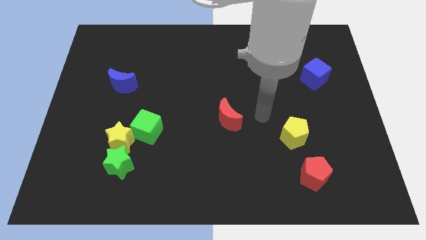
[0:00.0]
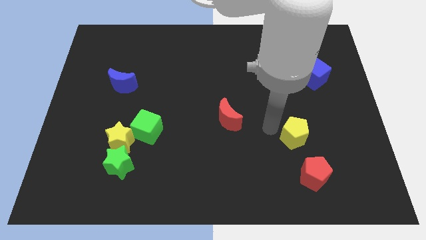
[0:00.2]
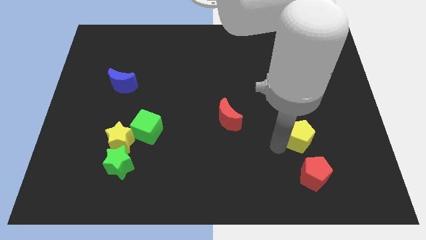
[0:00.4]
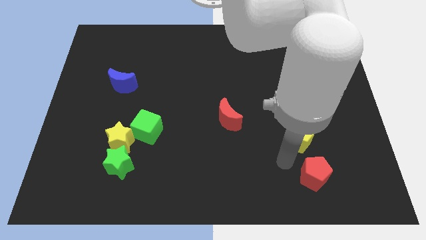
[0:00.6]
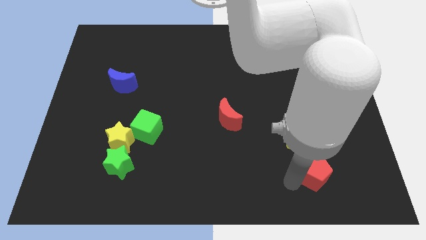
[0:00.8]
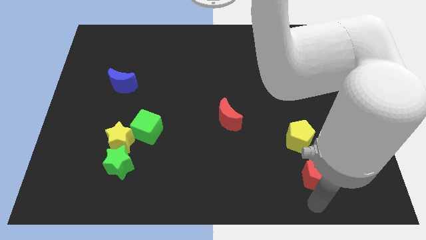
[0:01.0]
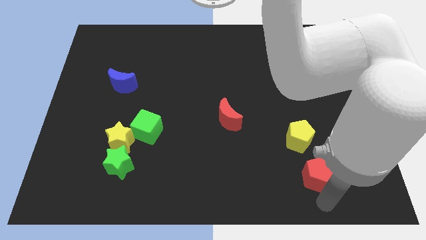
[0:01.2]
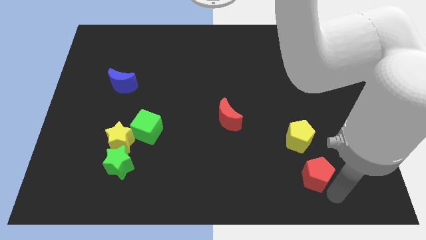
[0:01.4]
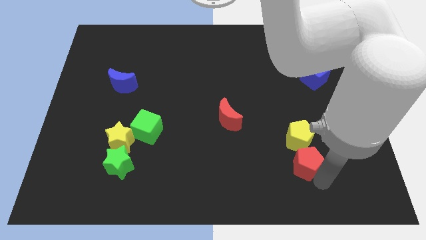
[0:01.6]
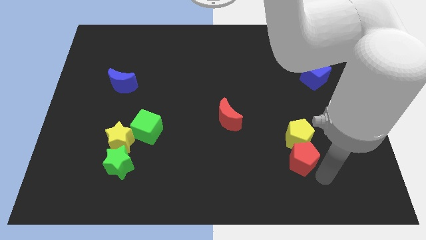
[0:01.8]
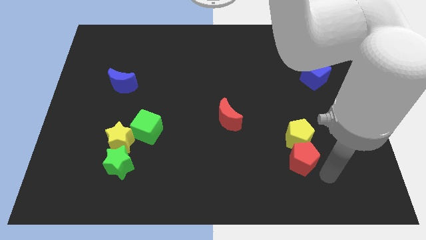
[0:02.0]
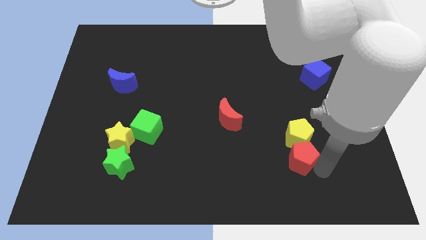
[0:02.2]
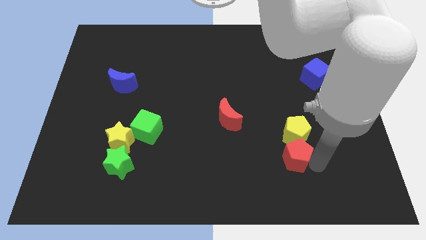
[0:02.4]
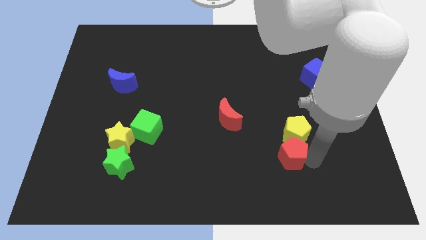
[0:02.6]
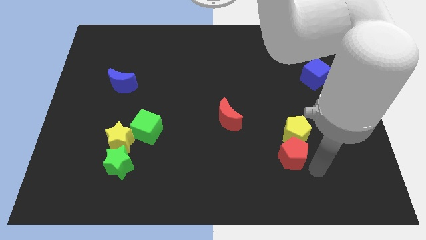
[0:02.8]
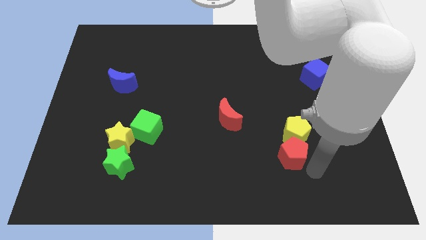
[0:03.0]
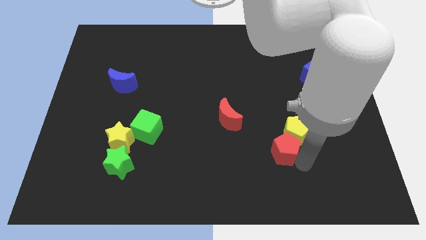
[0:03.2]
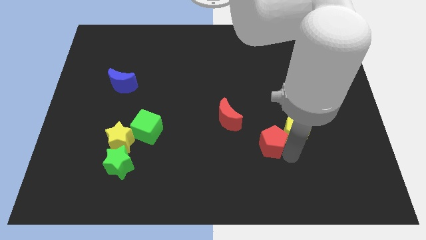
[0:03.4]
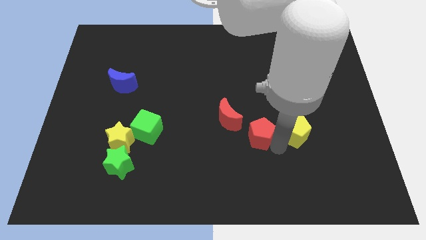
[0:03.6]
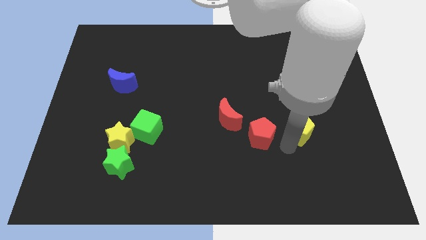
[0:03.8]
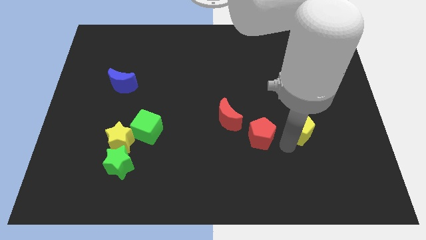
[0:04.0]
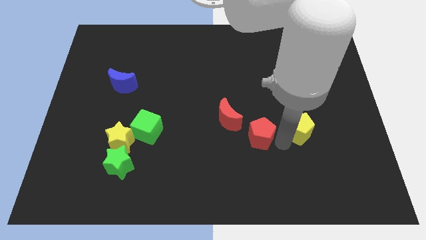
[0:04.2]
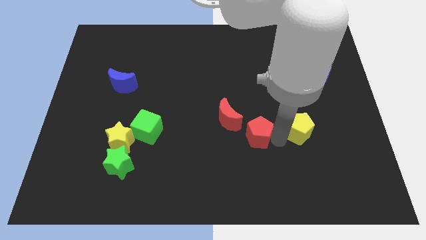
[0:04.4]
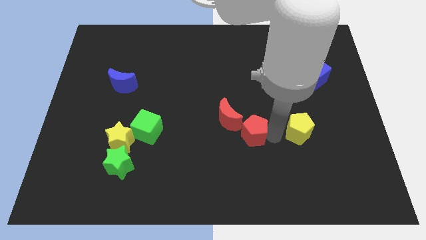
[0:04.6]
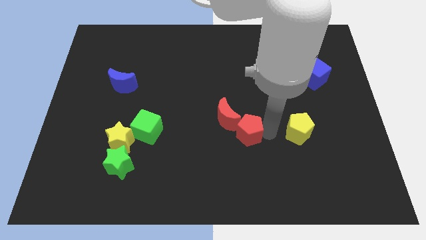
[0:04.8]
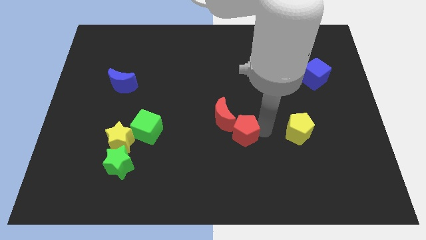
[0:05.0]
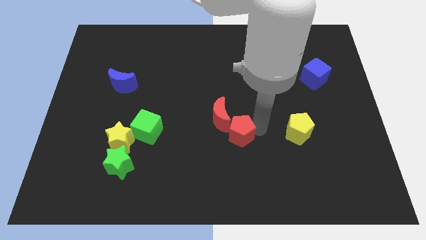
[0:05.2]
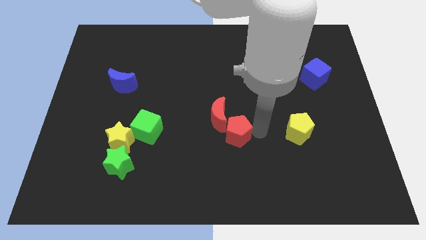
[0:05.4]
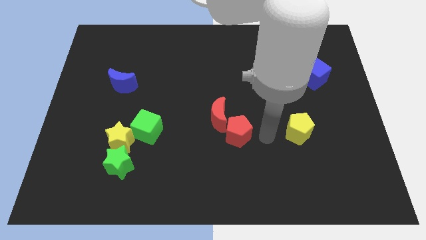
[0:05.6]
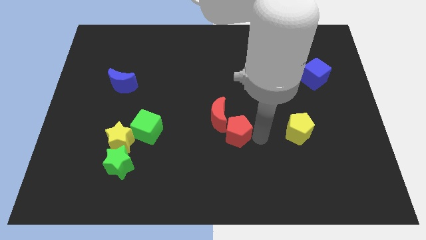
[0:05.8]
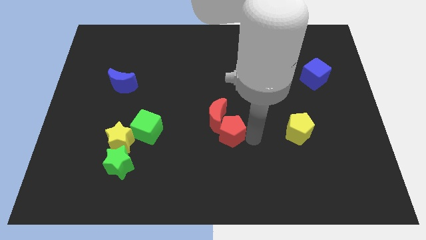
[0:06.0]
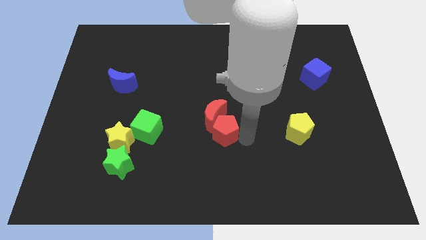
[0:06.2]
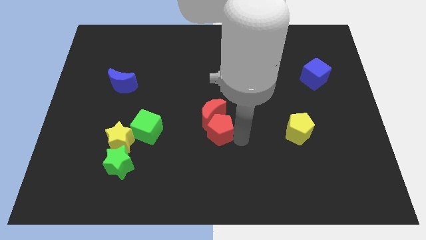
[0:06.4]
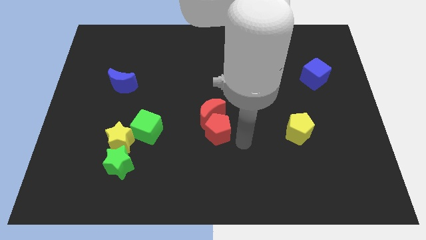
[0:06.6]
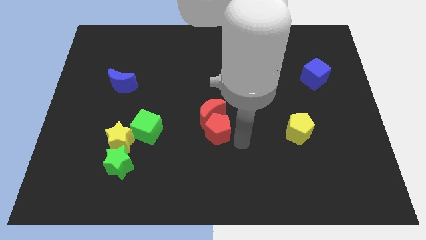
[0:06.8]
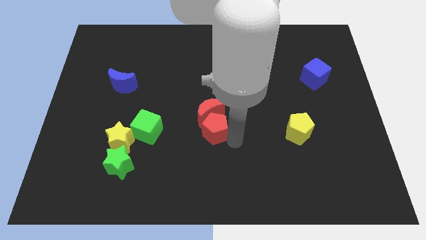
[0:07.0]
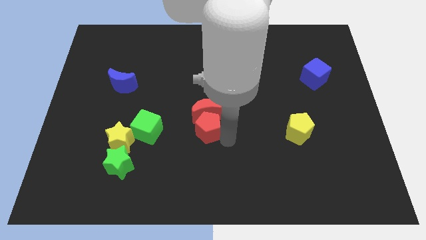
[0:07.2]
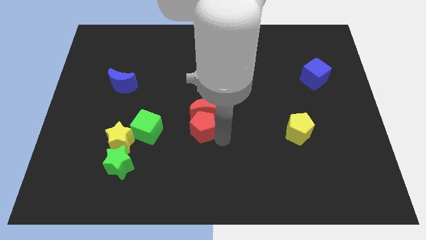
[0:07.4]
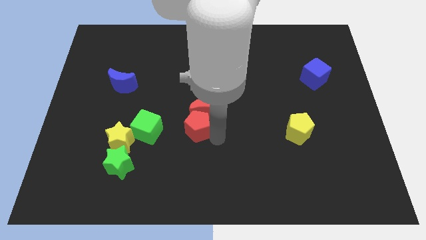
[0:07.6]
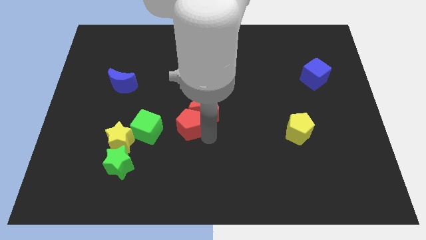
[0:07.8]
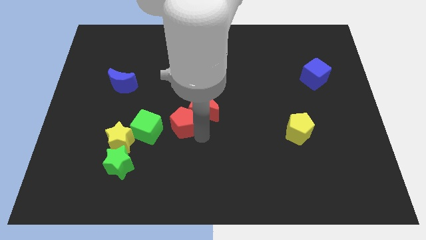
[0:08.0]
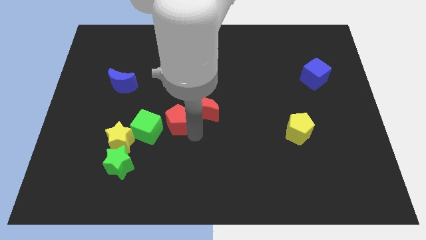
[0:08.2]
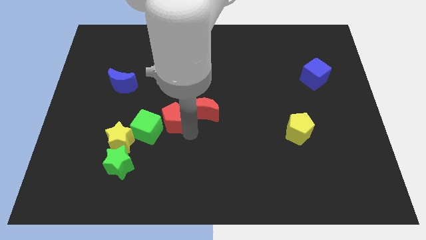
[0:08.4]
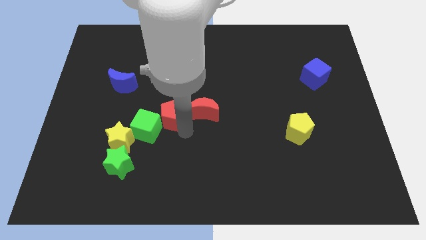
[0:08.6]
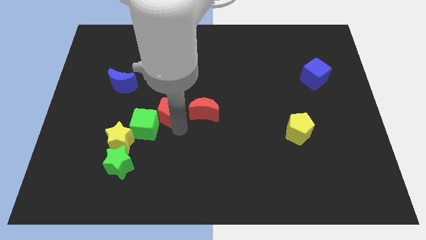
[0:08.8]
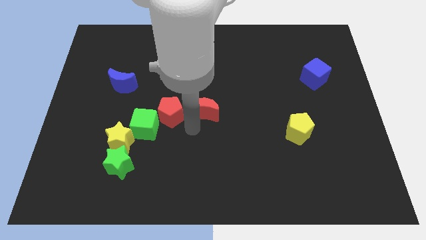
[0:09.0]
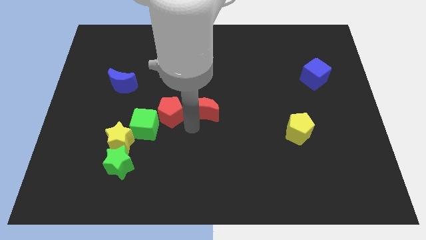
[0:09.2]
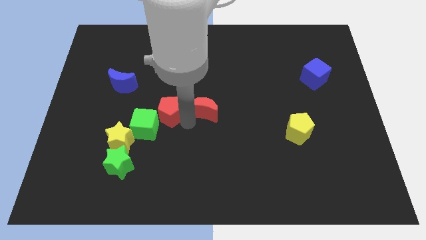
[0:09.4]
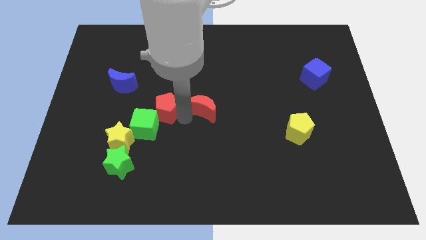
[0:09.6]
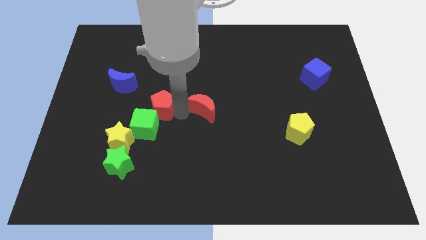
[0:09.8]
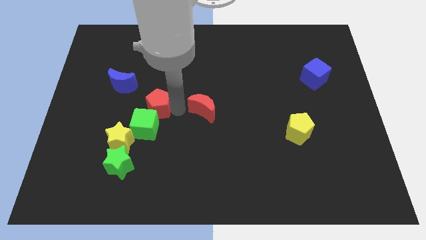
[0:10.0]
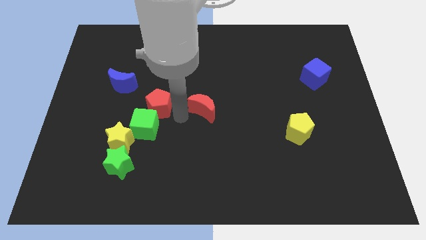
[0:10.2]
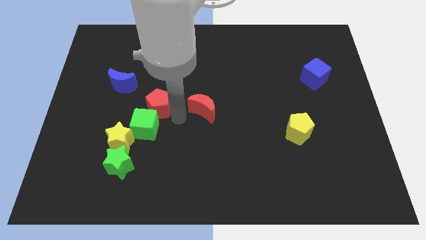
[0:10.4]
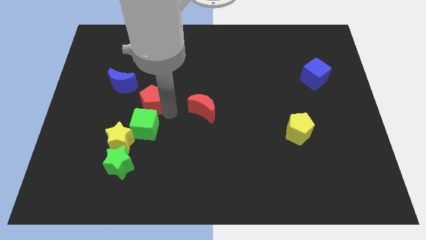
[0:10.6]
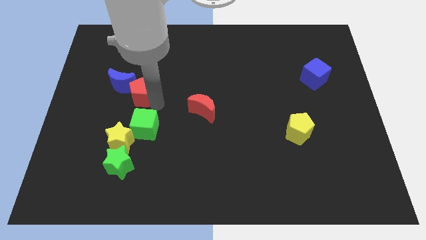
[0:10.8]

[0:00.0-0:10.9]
push the red pentagon towards the blue moon

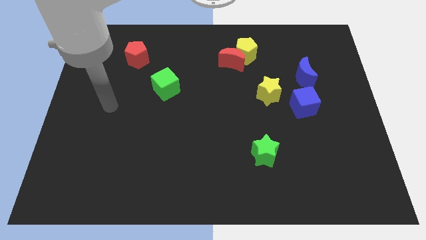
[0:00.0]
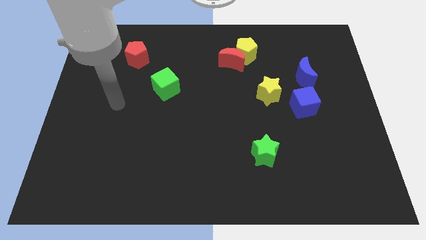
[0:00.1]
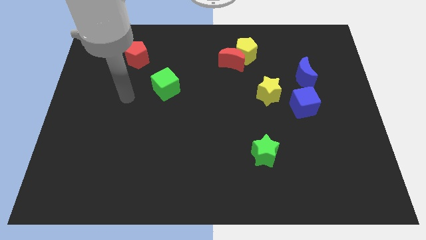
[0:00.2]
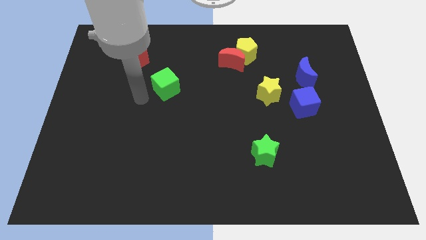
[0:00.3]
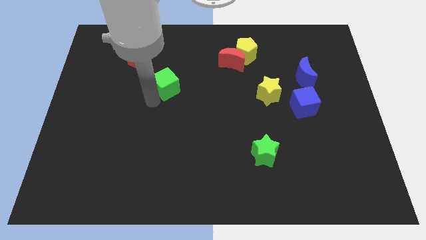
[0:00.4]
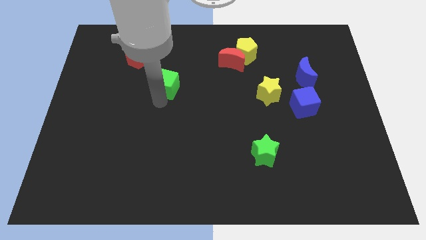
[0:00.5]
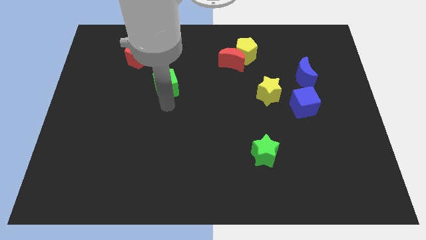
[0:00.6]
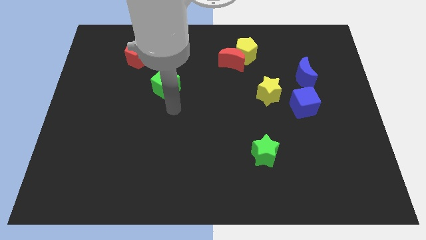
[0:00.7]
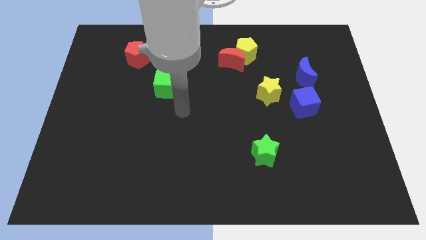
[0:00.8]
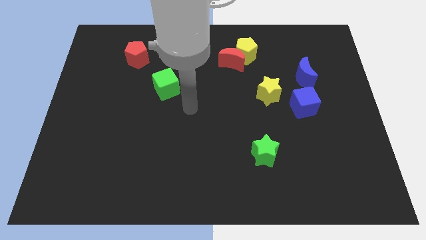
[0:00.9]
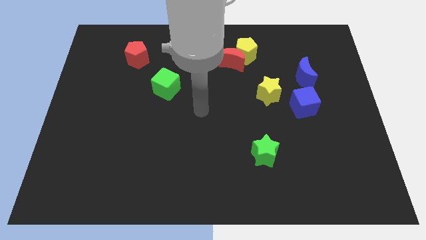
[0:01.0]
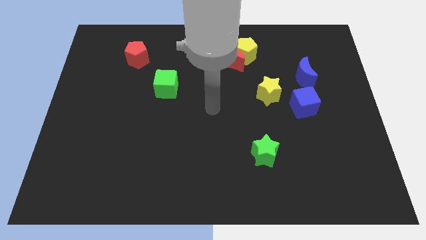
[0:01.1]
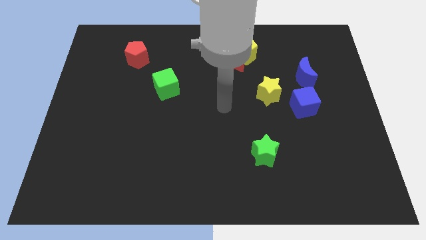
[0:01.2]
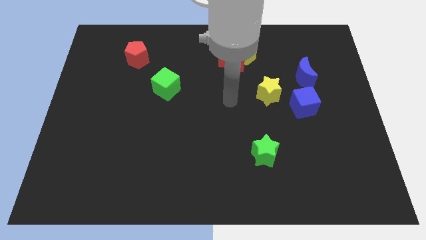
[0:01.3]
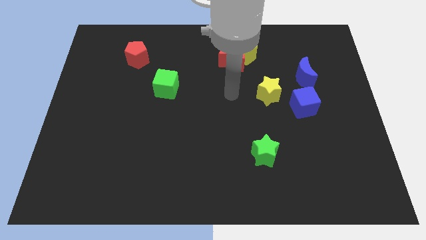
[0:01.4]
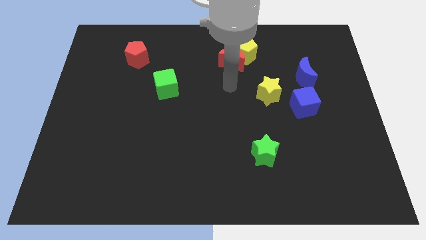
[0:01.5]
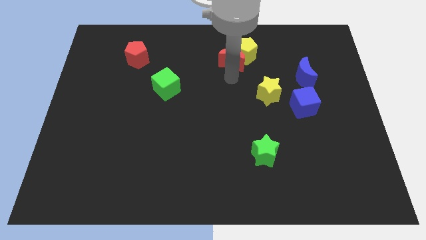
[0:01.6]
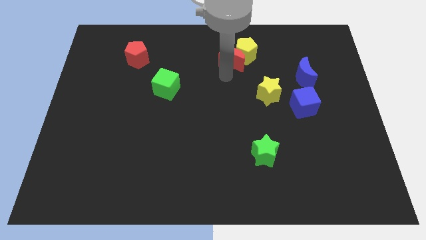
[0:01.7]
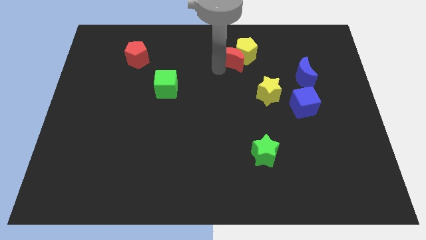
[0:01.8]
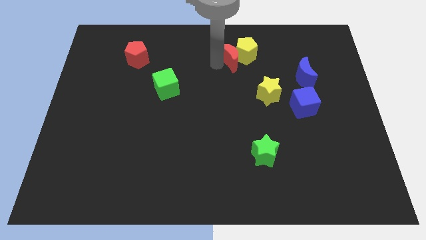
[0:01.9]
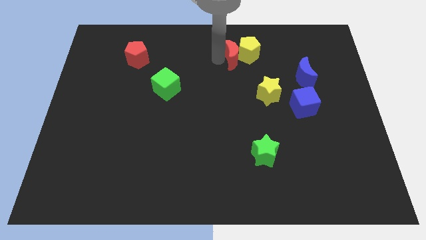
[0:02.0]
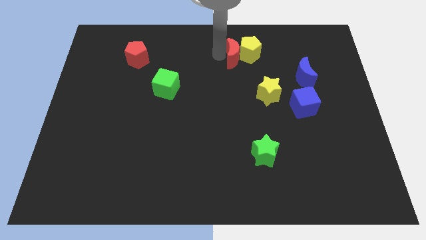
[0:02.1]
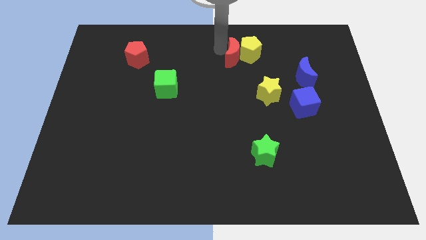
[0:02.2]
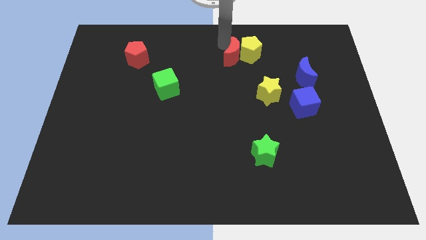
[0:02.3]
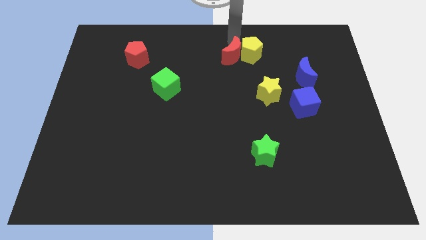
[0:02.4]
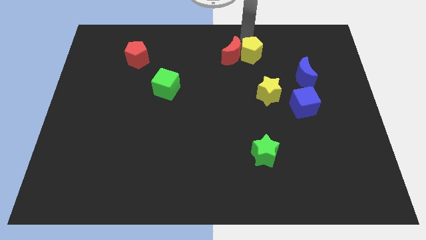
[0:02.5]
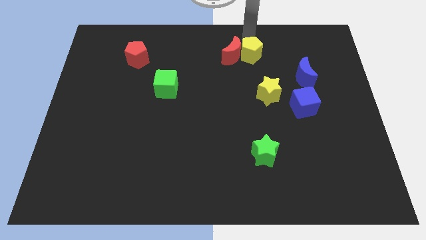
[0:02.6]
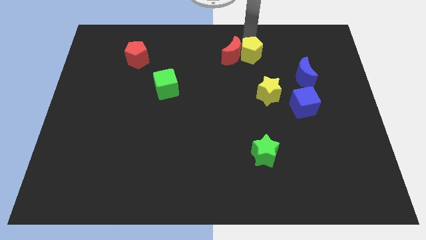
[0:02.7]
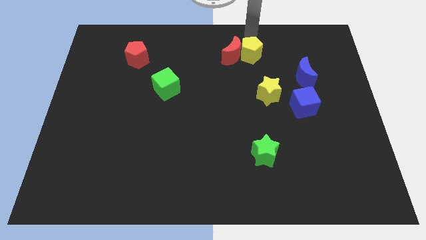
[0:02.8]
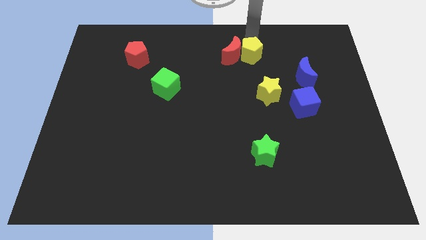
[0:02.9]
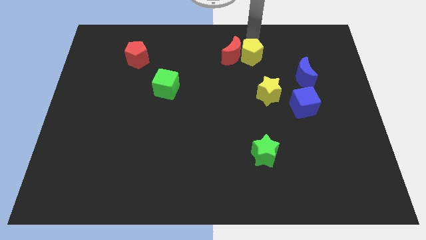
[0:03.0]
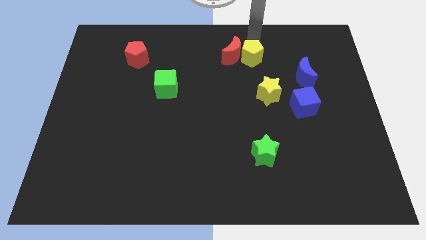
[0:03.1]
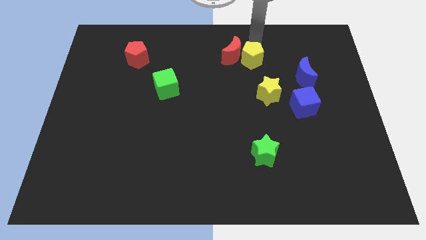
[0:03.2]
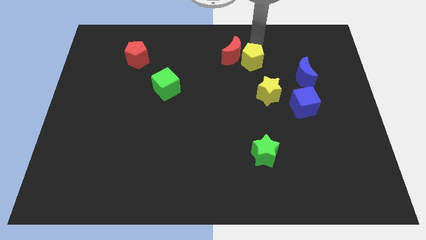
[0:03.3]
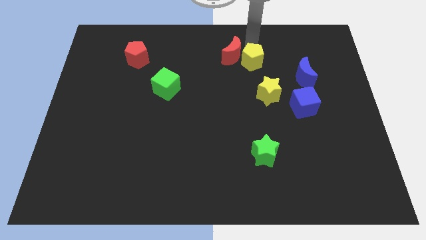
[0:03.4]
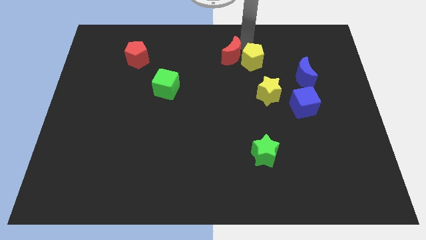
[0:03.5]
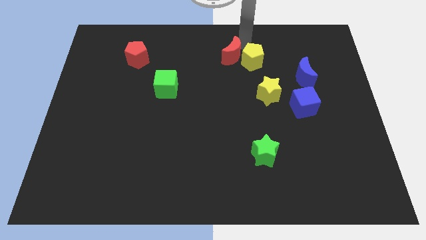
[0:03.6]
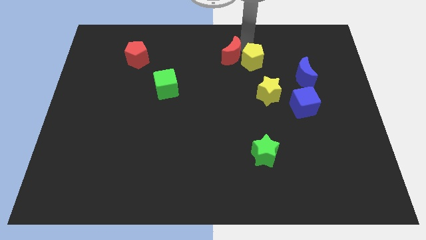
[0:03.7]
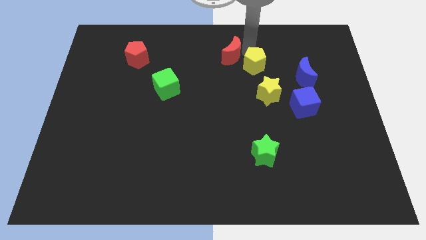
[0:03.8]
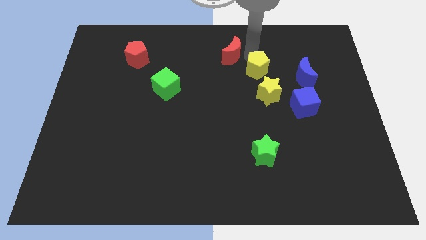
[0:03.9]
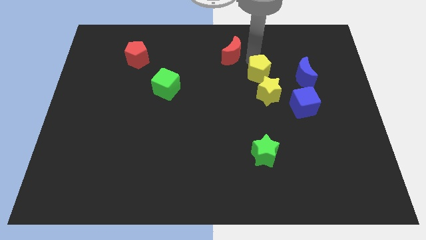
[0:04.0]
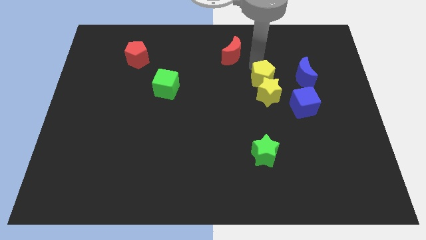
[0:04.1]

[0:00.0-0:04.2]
slide the yellow pentagon towards the yellow star
